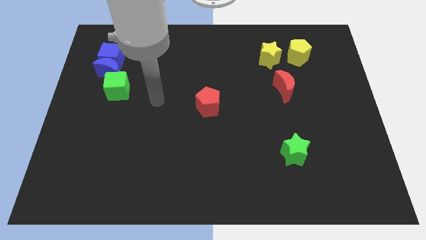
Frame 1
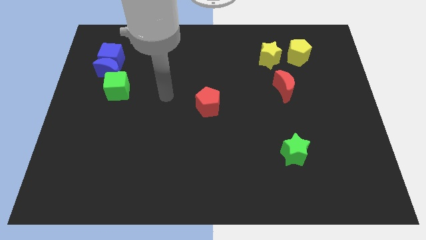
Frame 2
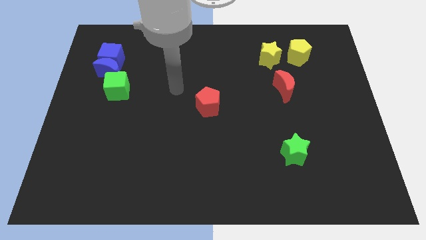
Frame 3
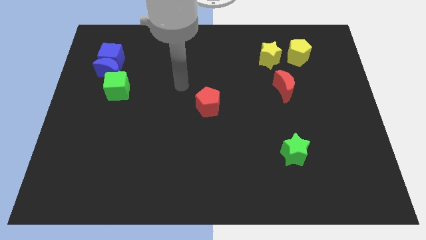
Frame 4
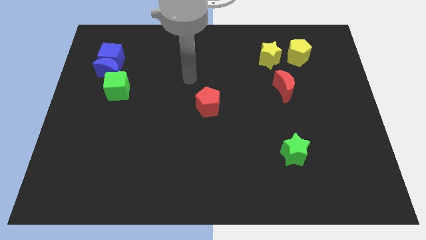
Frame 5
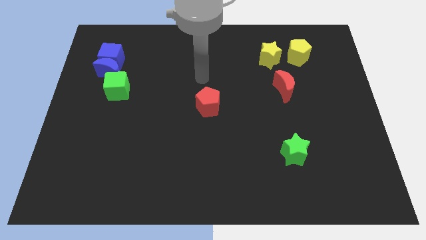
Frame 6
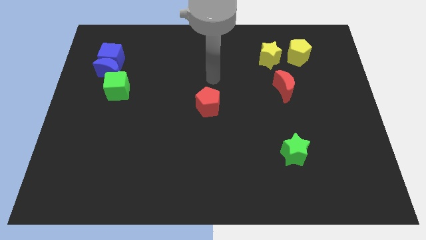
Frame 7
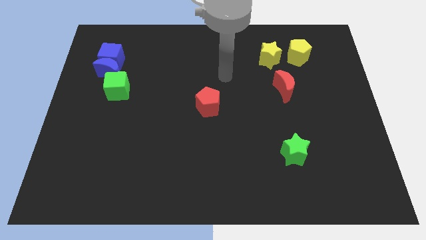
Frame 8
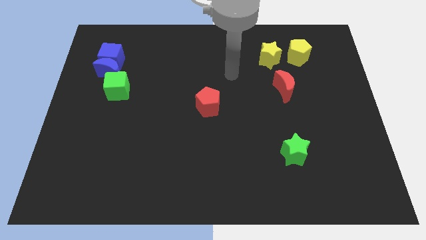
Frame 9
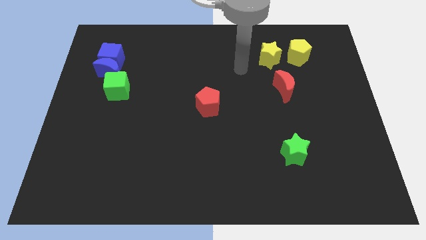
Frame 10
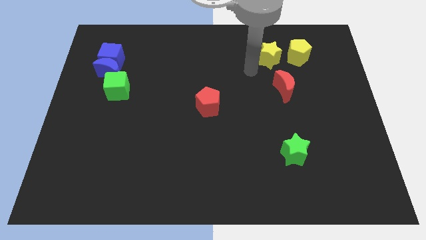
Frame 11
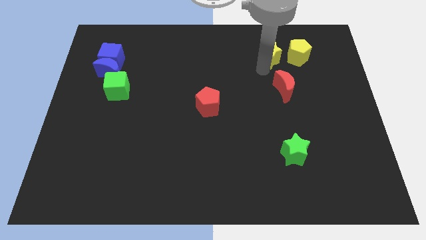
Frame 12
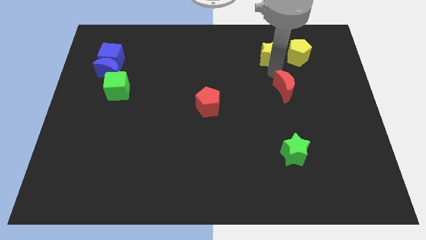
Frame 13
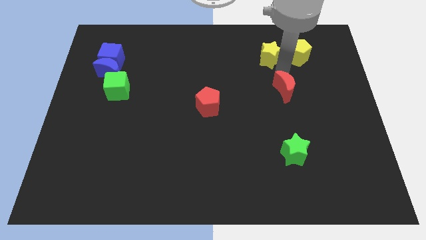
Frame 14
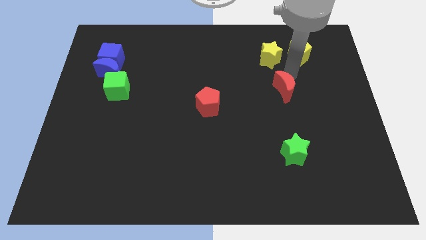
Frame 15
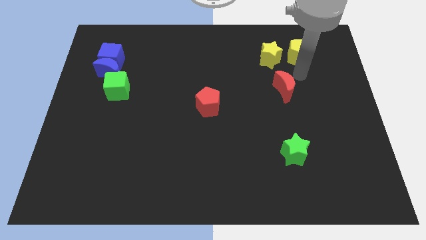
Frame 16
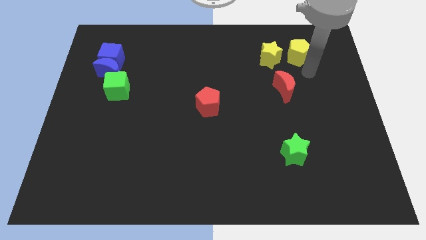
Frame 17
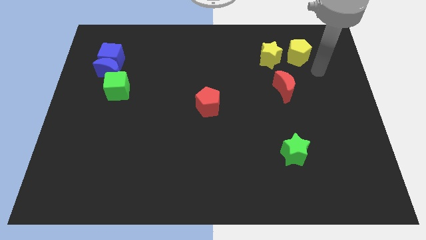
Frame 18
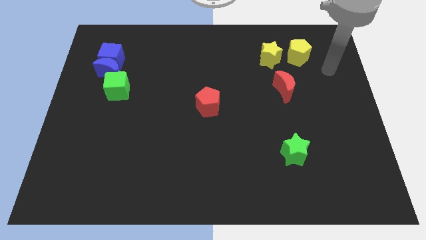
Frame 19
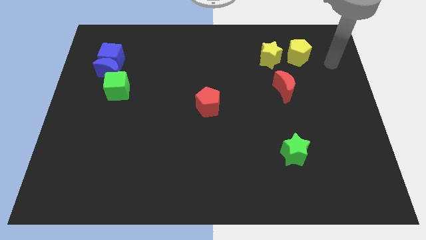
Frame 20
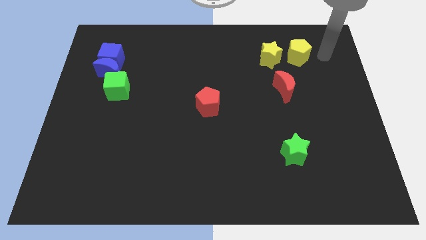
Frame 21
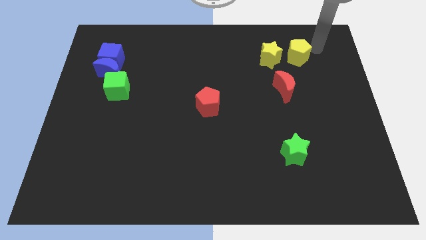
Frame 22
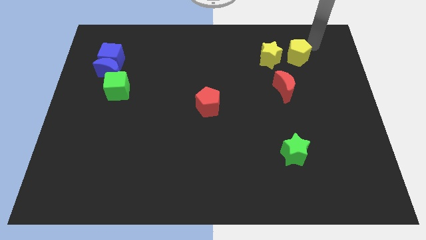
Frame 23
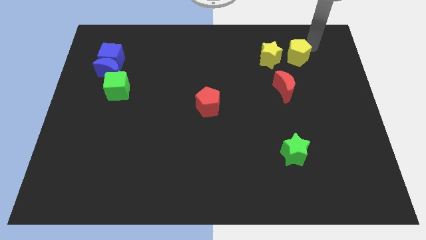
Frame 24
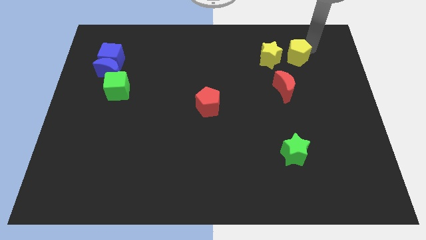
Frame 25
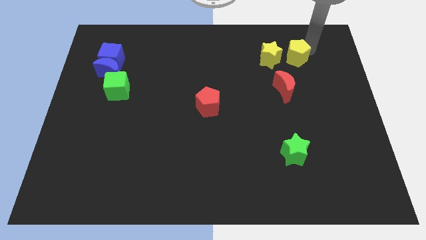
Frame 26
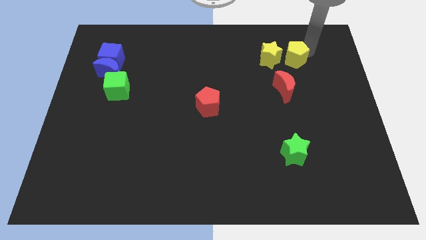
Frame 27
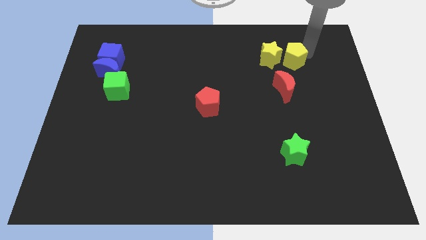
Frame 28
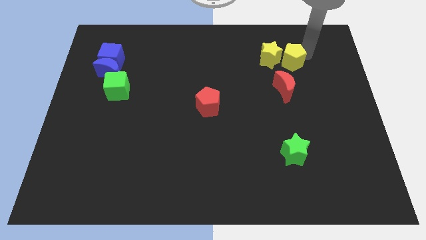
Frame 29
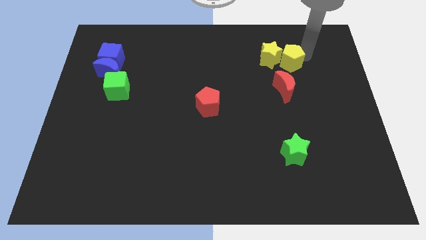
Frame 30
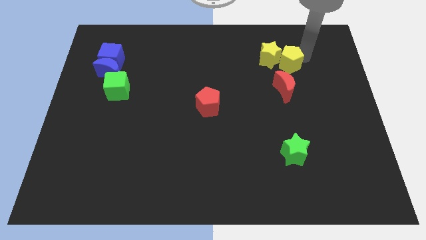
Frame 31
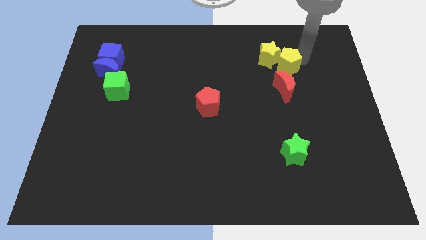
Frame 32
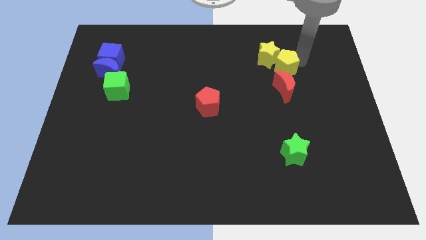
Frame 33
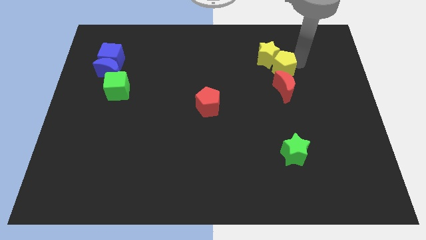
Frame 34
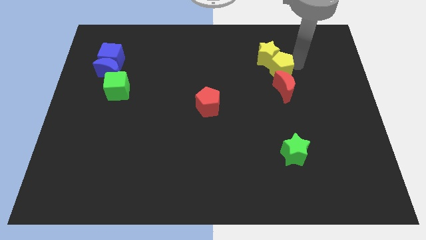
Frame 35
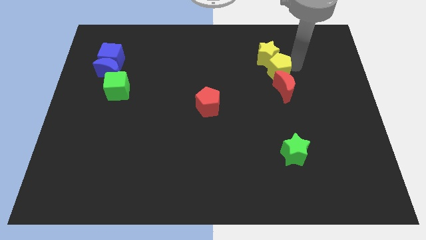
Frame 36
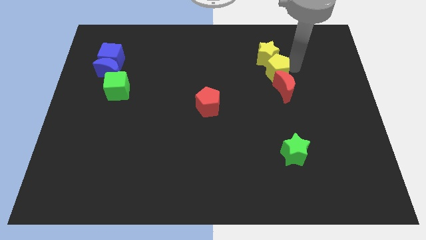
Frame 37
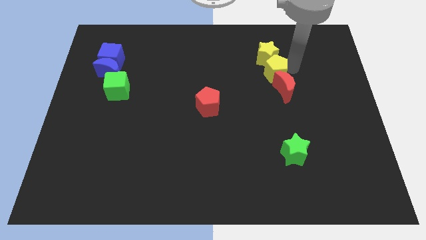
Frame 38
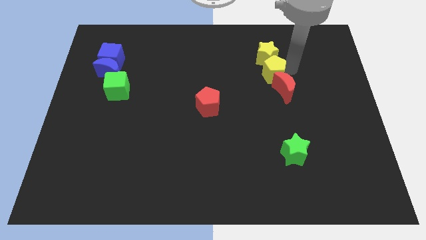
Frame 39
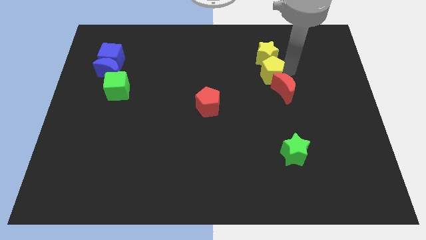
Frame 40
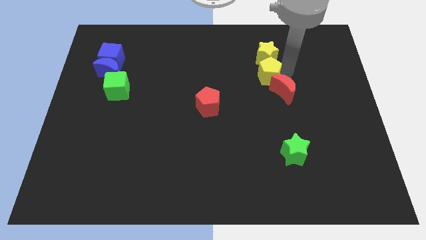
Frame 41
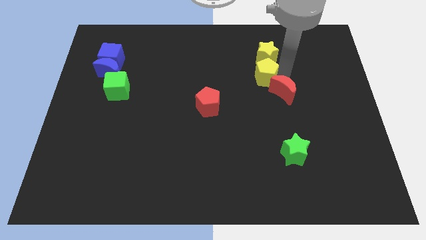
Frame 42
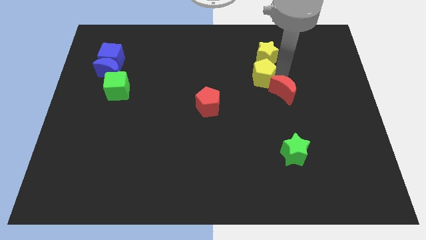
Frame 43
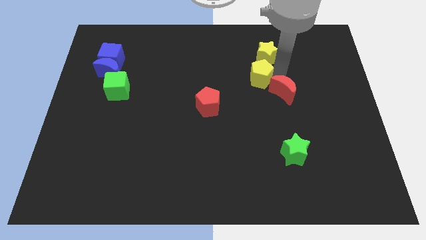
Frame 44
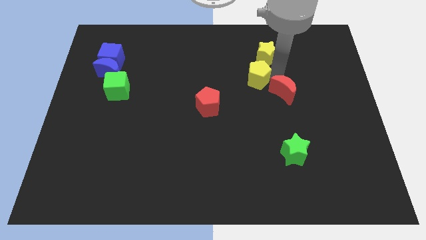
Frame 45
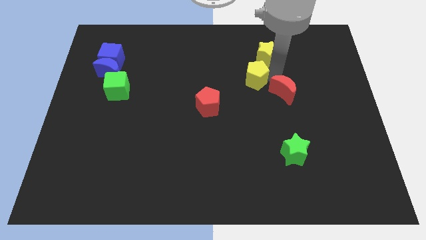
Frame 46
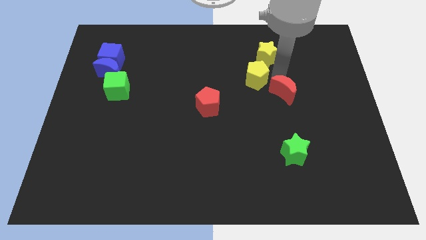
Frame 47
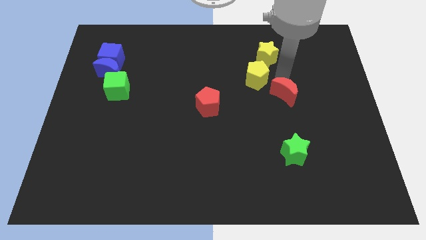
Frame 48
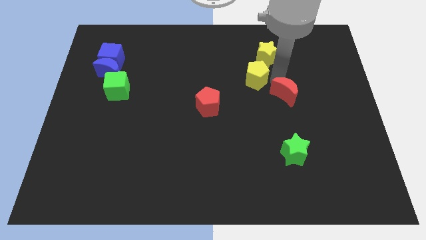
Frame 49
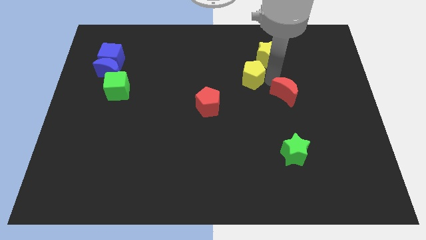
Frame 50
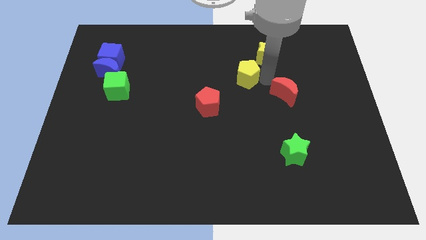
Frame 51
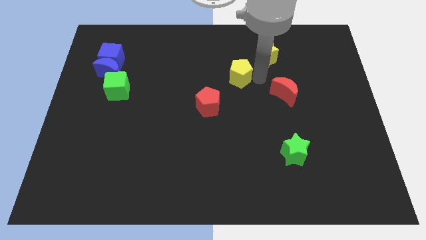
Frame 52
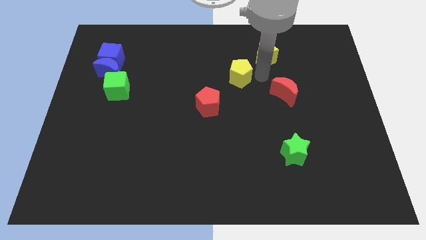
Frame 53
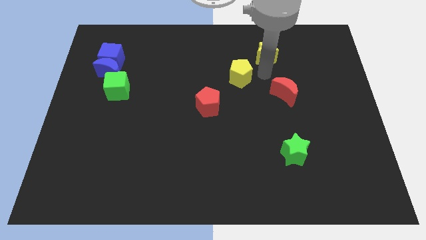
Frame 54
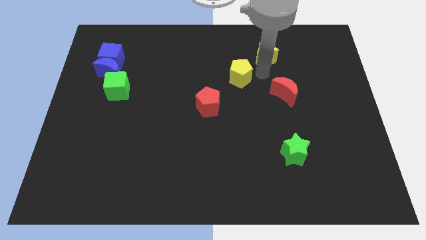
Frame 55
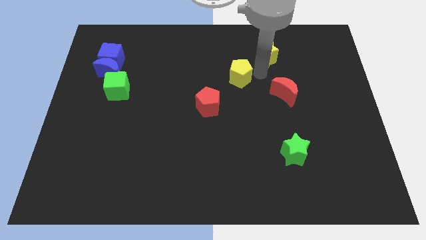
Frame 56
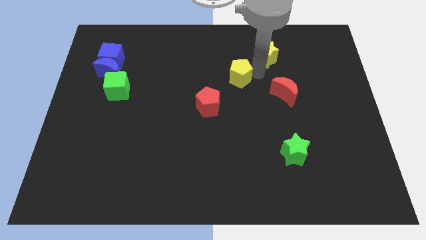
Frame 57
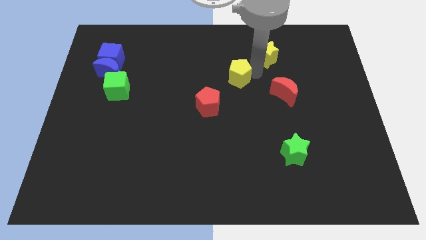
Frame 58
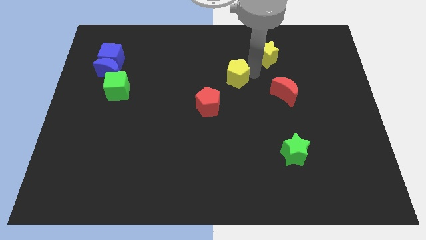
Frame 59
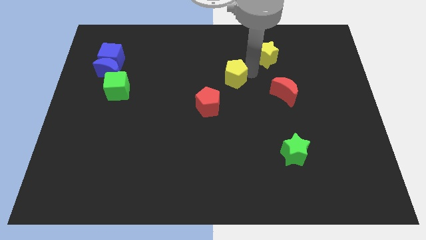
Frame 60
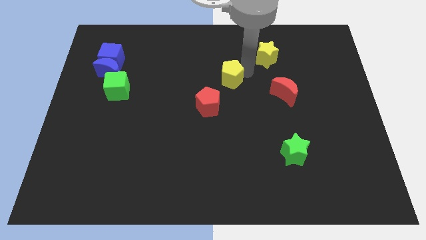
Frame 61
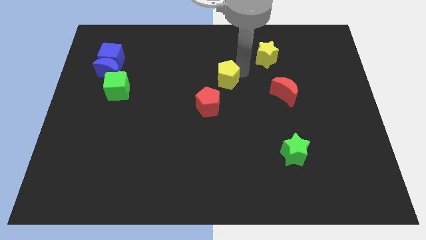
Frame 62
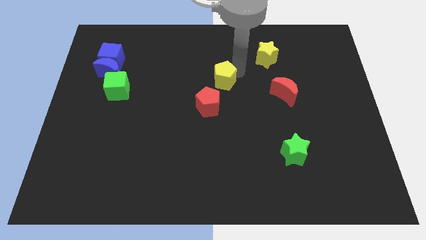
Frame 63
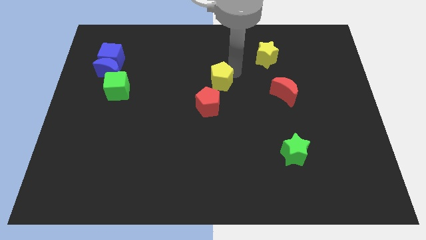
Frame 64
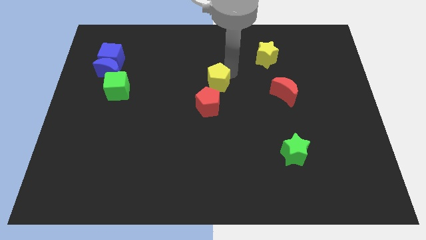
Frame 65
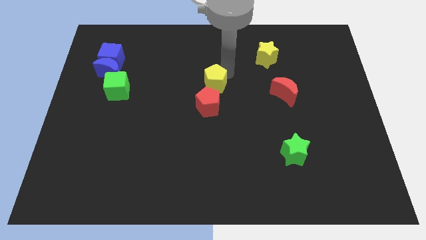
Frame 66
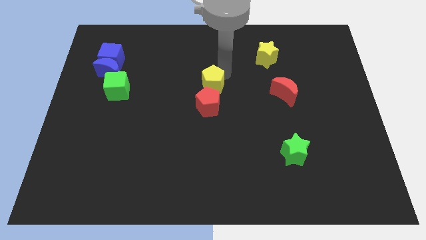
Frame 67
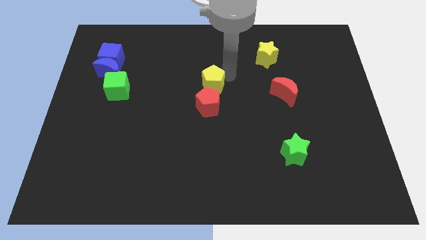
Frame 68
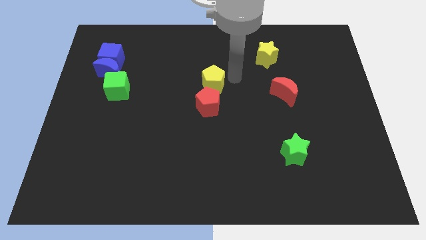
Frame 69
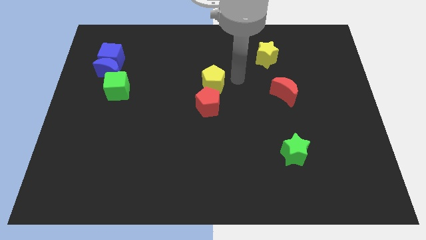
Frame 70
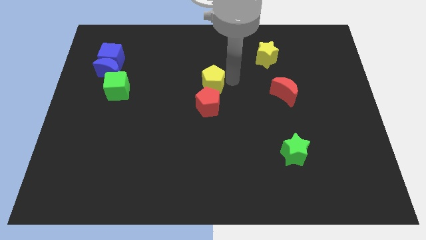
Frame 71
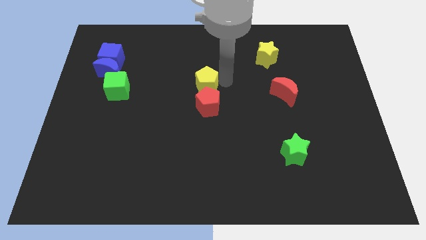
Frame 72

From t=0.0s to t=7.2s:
push the yellow pentagon diagonally up and to the left of the red pentagon
